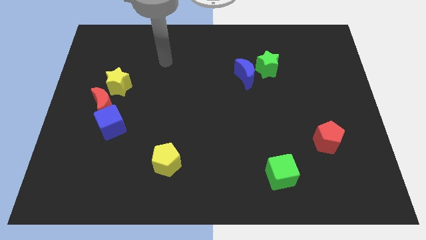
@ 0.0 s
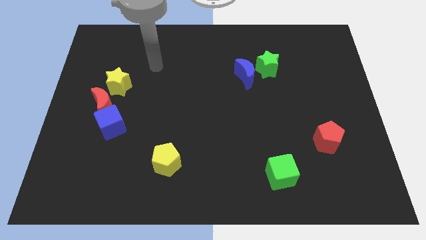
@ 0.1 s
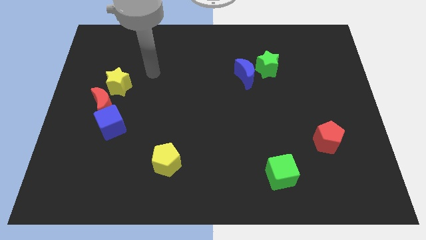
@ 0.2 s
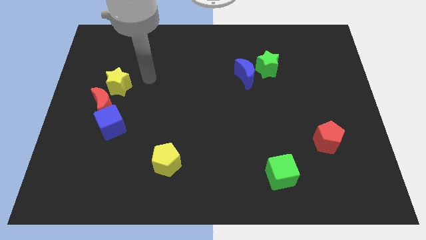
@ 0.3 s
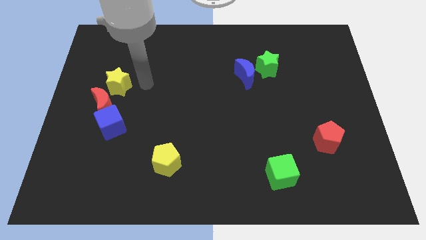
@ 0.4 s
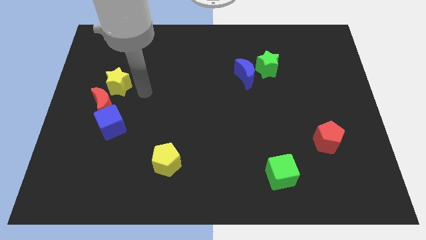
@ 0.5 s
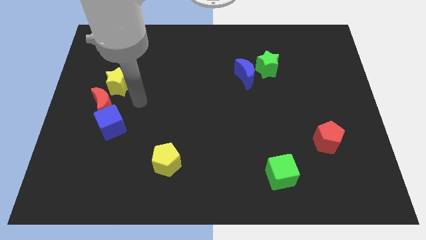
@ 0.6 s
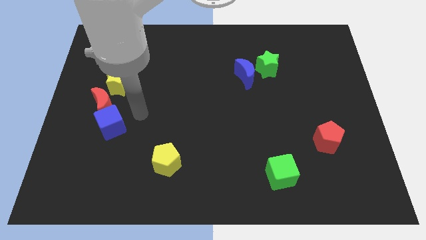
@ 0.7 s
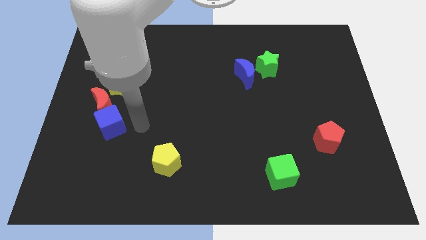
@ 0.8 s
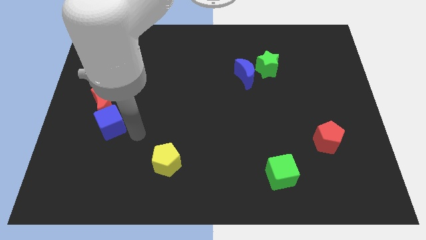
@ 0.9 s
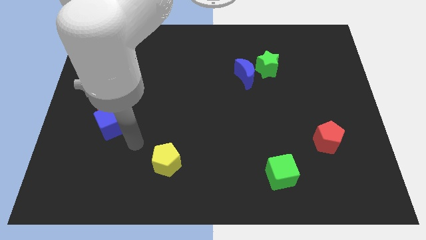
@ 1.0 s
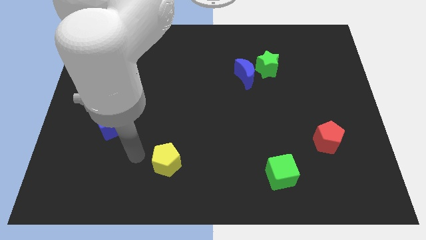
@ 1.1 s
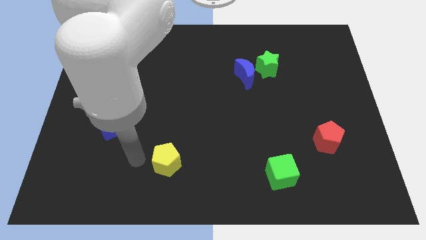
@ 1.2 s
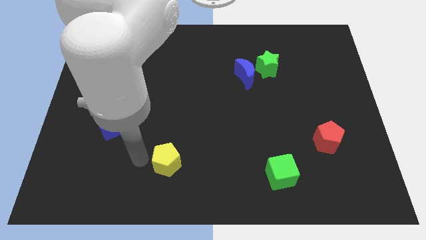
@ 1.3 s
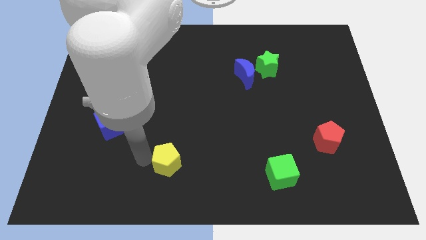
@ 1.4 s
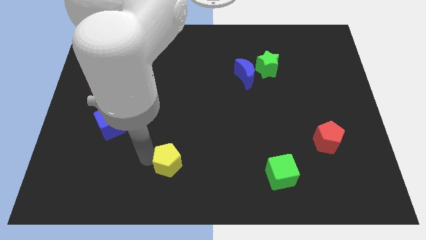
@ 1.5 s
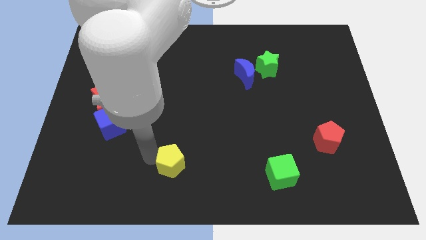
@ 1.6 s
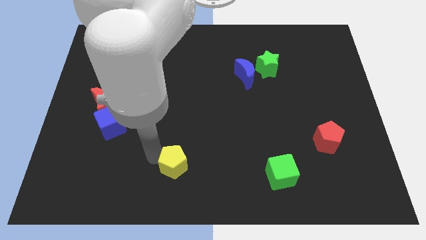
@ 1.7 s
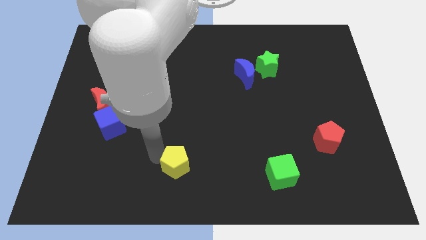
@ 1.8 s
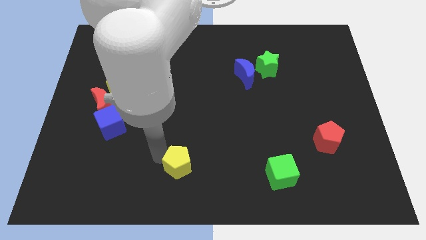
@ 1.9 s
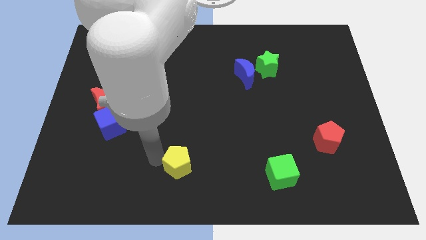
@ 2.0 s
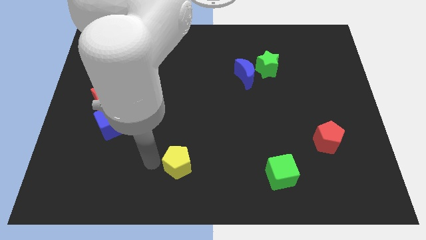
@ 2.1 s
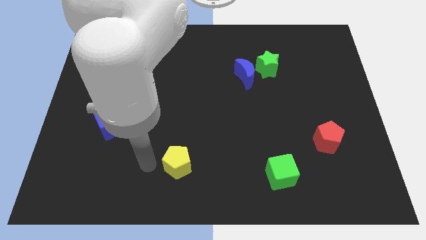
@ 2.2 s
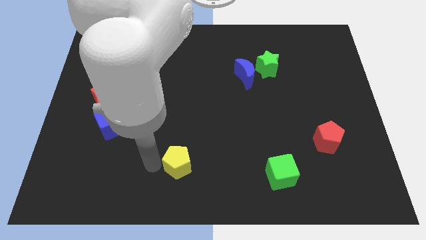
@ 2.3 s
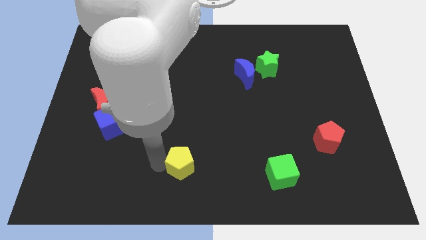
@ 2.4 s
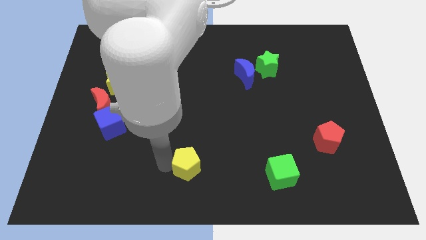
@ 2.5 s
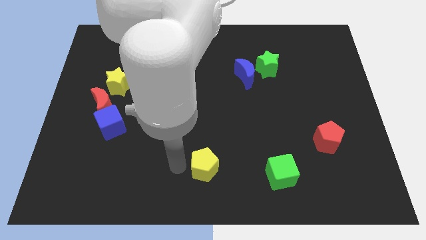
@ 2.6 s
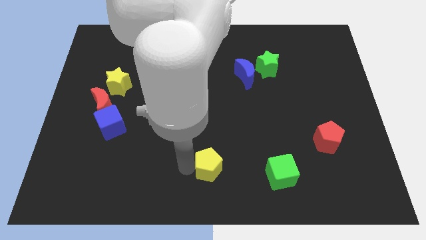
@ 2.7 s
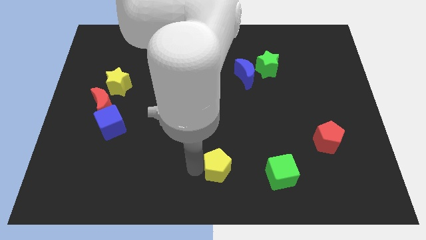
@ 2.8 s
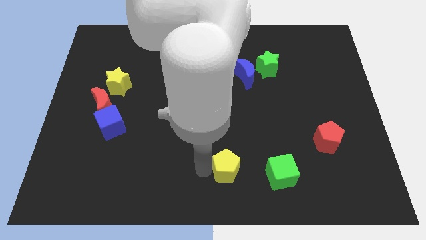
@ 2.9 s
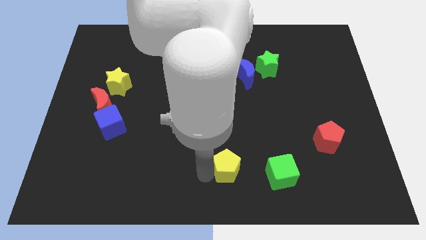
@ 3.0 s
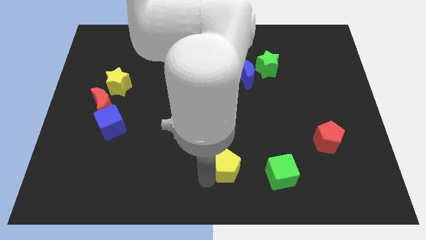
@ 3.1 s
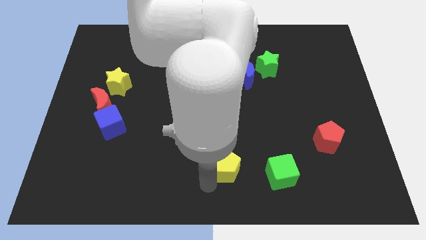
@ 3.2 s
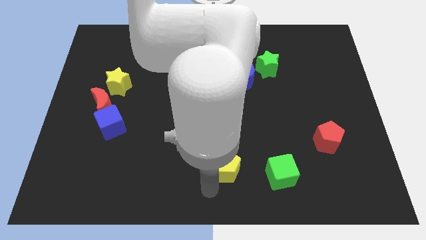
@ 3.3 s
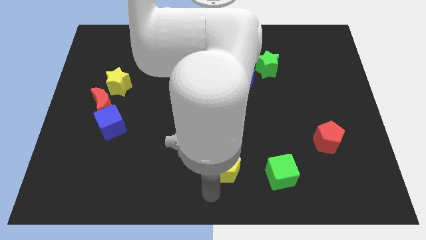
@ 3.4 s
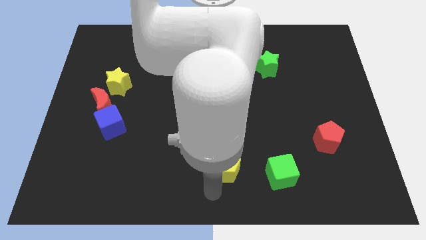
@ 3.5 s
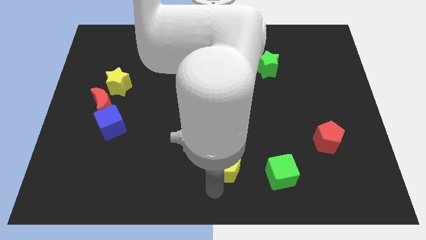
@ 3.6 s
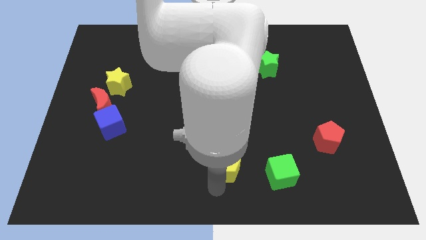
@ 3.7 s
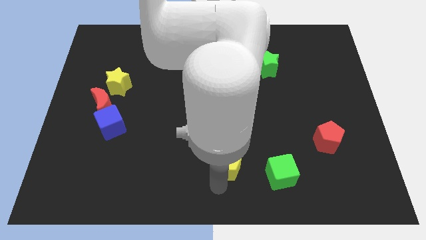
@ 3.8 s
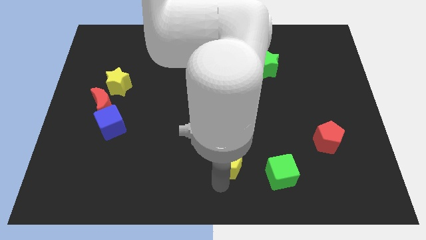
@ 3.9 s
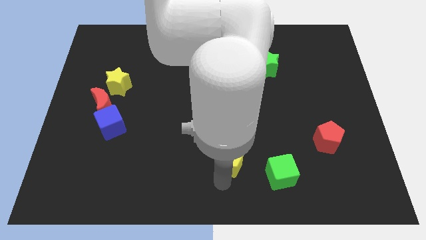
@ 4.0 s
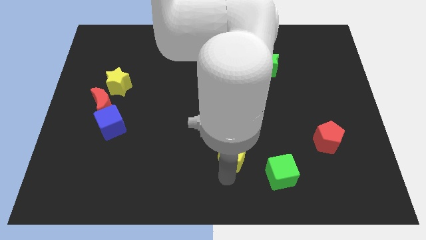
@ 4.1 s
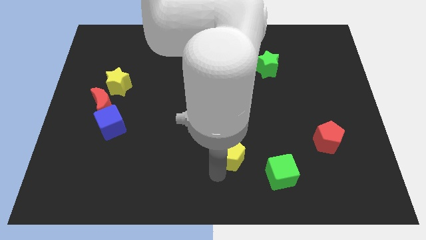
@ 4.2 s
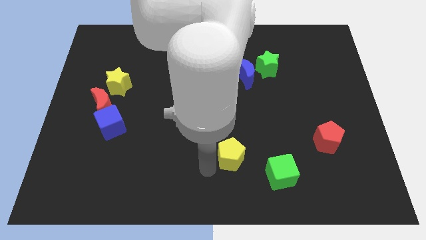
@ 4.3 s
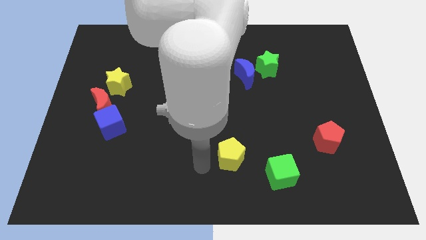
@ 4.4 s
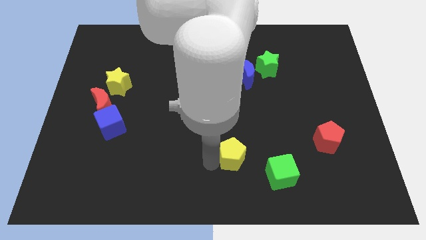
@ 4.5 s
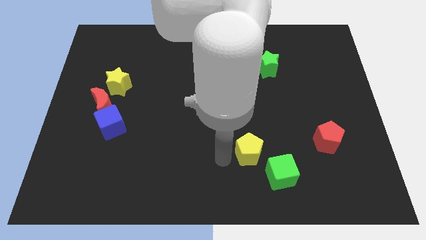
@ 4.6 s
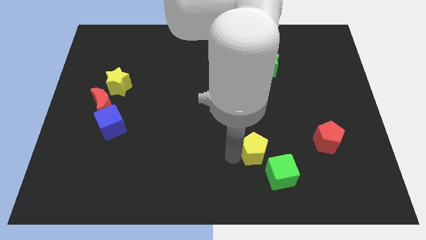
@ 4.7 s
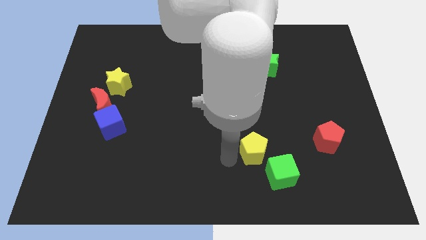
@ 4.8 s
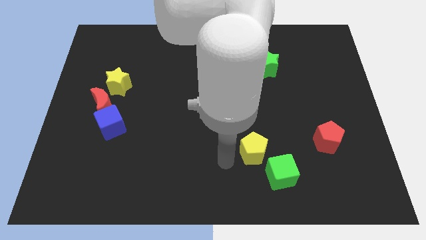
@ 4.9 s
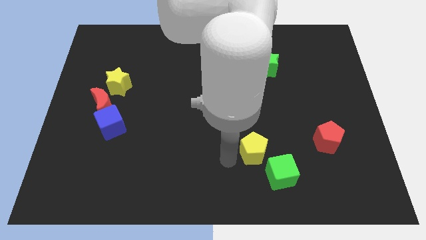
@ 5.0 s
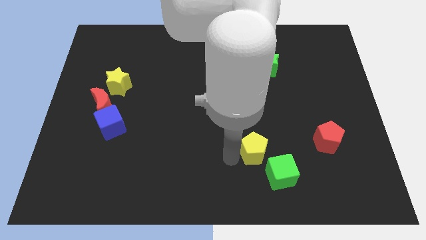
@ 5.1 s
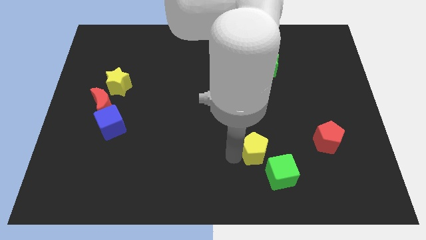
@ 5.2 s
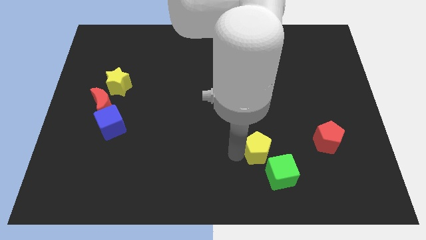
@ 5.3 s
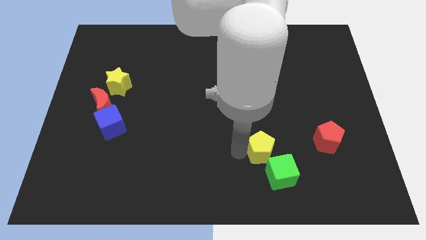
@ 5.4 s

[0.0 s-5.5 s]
move the yellow pentagon left of the red pentagon

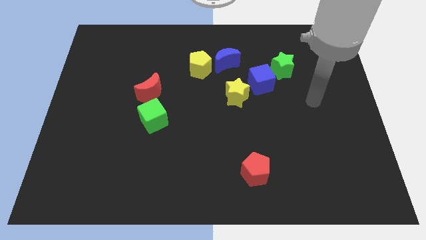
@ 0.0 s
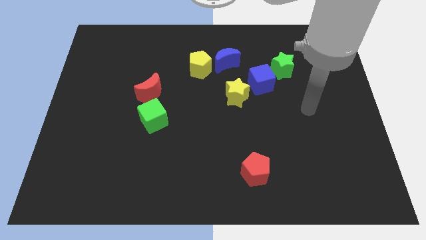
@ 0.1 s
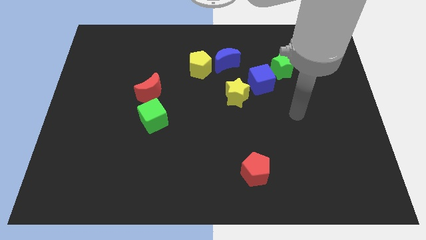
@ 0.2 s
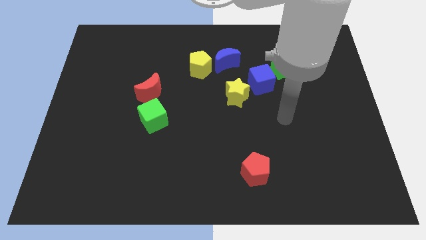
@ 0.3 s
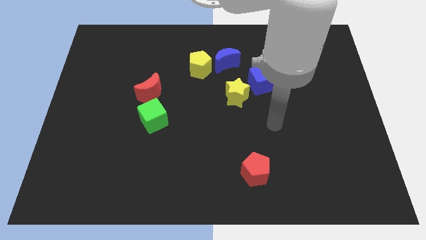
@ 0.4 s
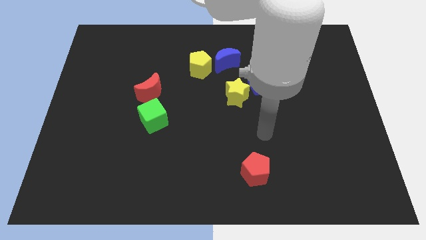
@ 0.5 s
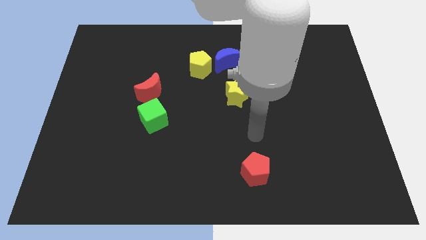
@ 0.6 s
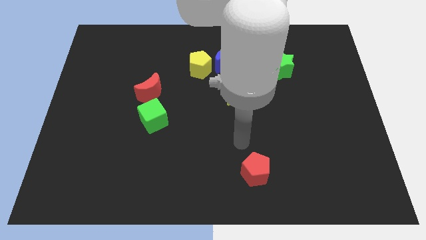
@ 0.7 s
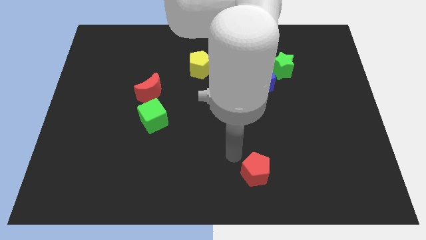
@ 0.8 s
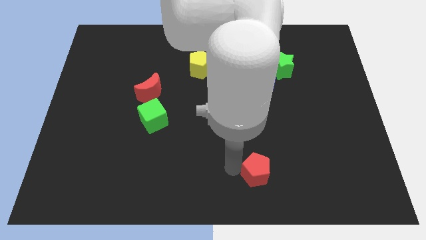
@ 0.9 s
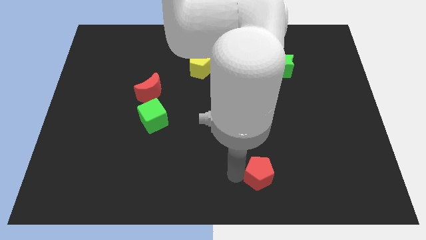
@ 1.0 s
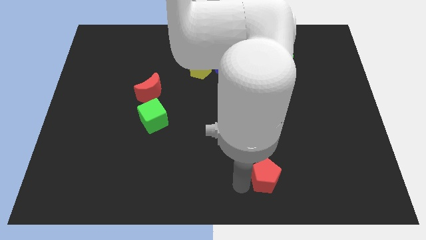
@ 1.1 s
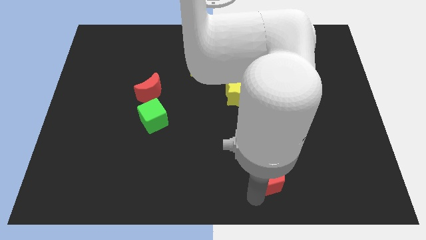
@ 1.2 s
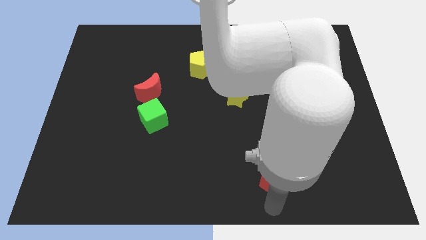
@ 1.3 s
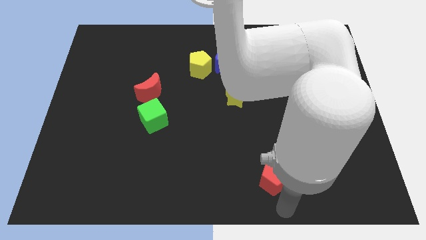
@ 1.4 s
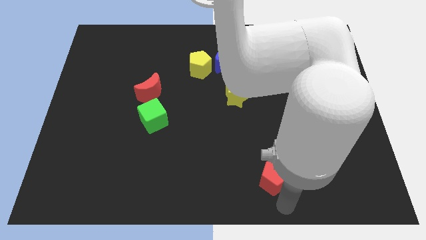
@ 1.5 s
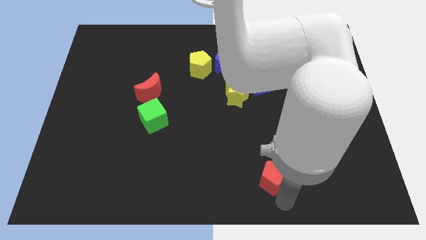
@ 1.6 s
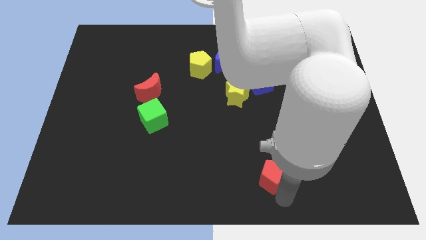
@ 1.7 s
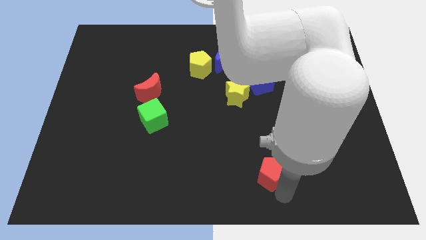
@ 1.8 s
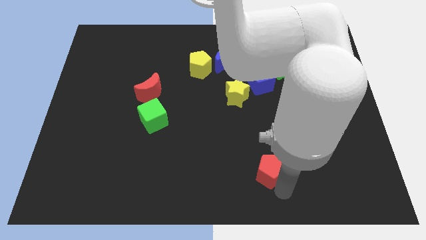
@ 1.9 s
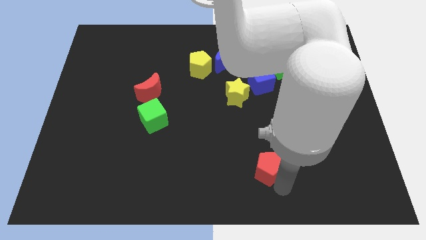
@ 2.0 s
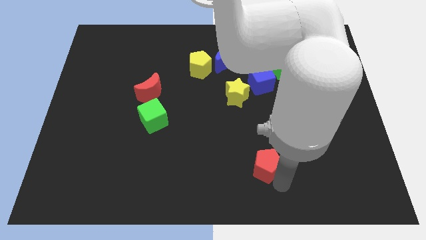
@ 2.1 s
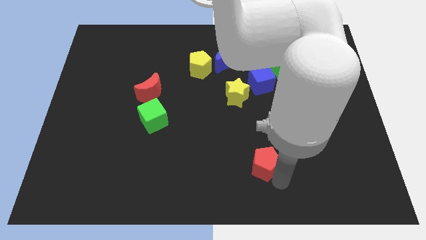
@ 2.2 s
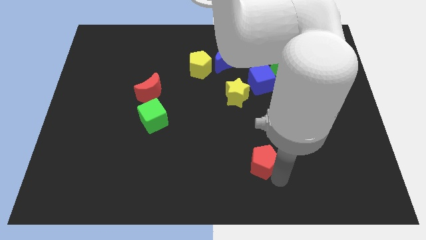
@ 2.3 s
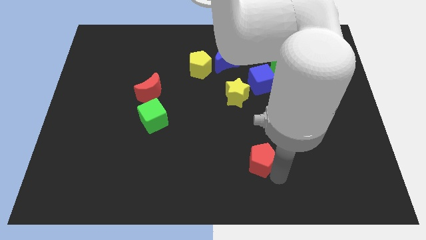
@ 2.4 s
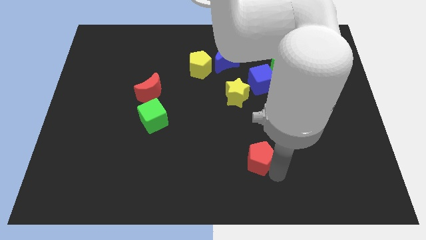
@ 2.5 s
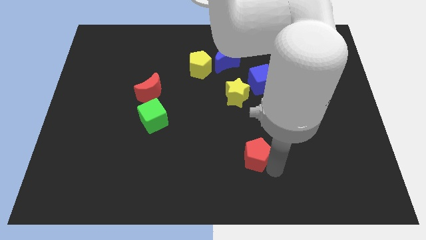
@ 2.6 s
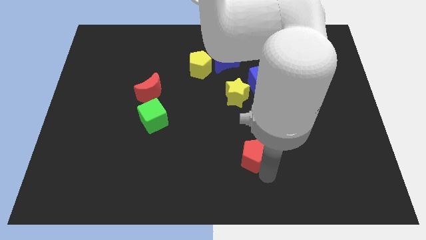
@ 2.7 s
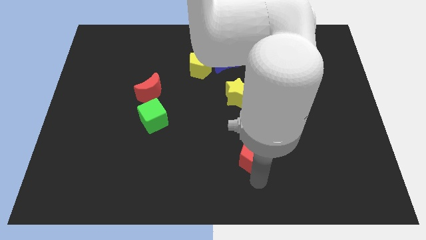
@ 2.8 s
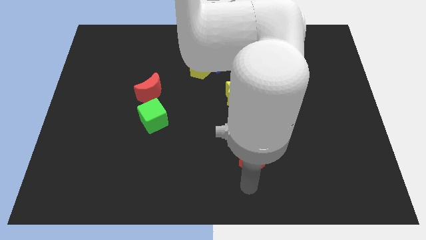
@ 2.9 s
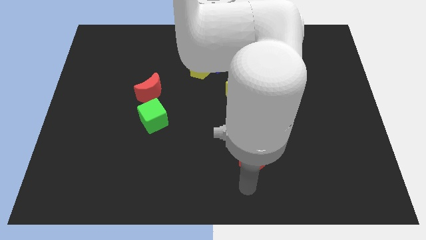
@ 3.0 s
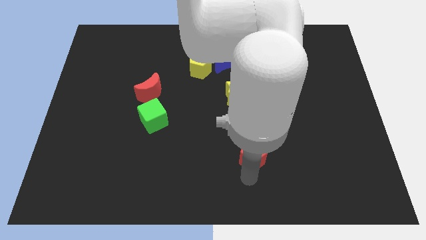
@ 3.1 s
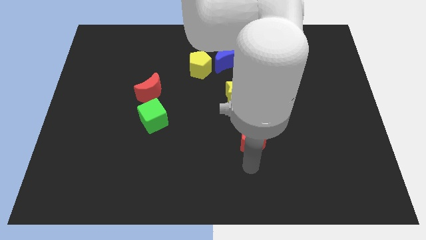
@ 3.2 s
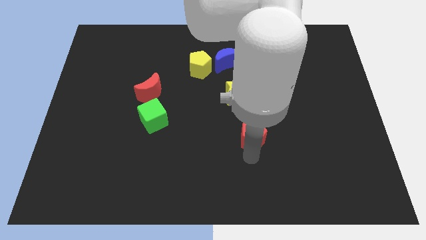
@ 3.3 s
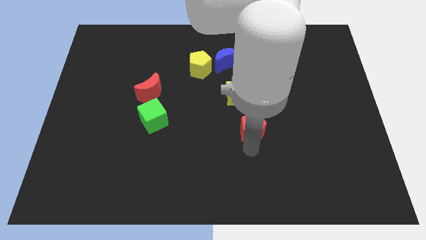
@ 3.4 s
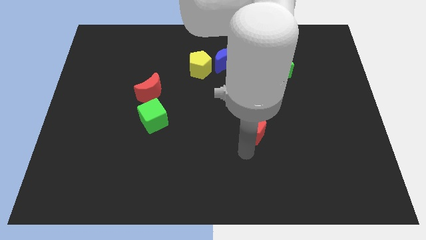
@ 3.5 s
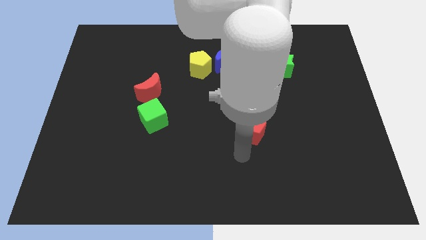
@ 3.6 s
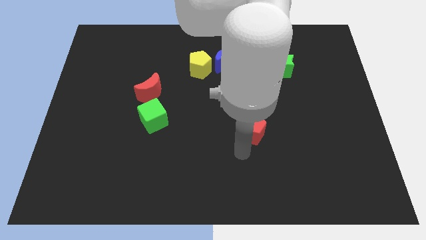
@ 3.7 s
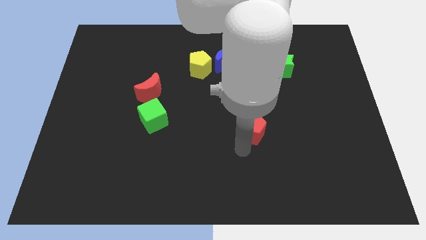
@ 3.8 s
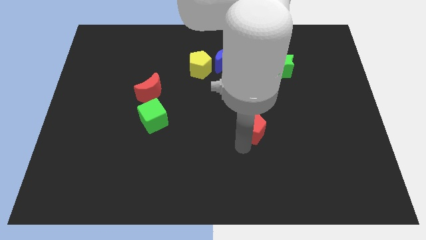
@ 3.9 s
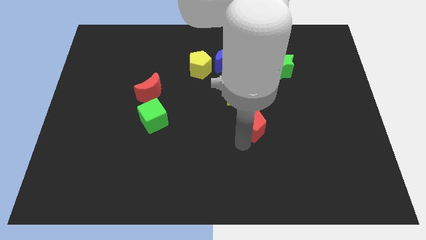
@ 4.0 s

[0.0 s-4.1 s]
move the red pentagon to the bottom right side of the yellow star
